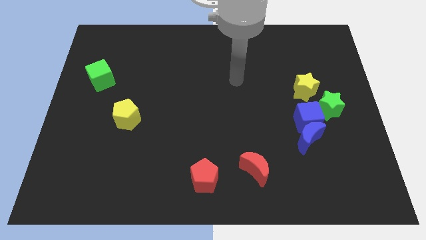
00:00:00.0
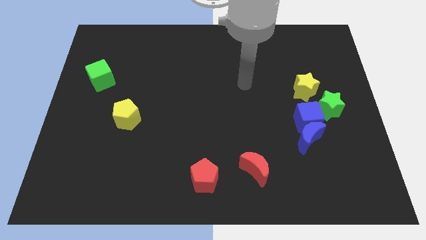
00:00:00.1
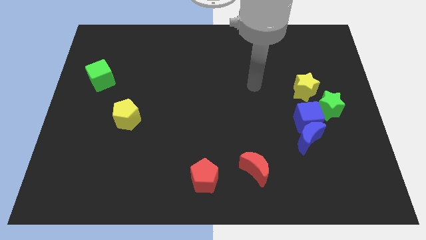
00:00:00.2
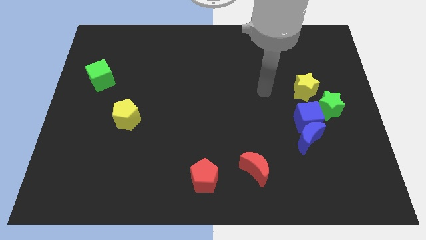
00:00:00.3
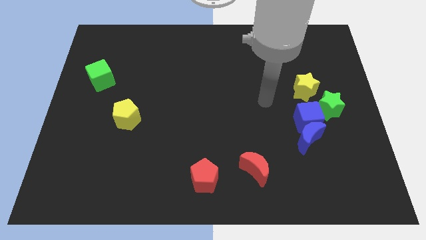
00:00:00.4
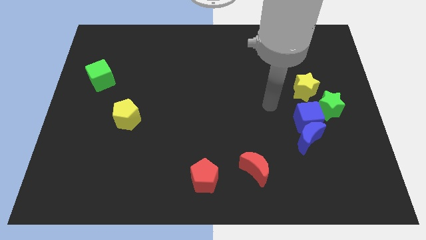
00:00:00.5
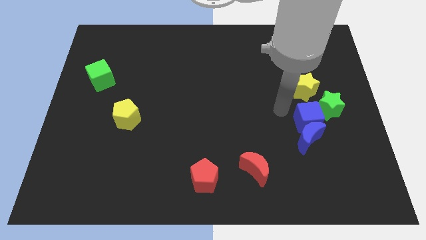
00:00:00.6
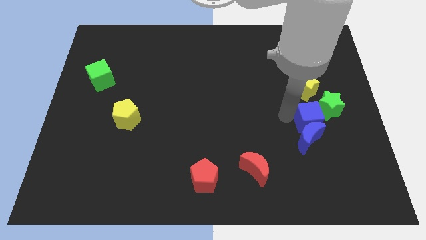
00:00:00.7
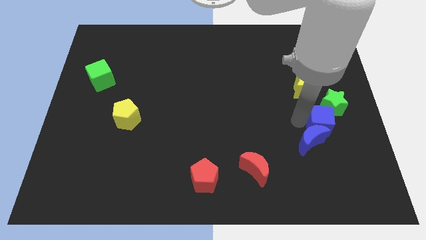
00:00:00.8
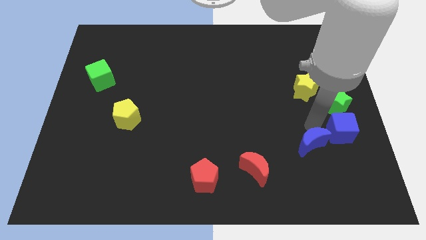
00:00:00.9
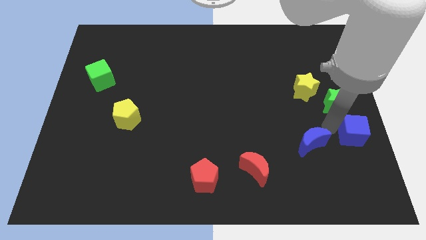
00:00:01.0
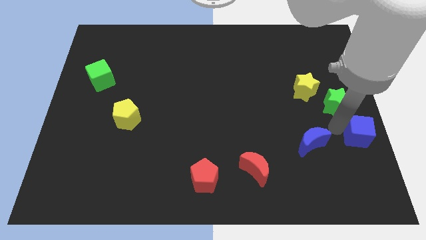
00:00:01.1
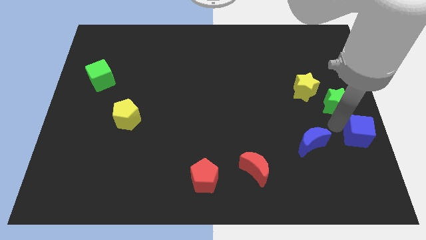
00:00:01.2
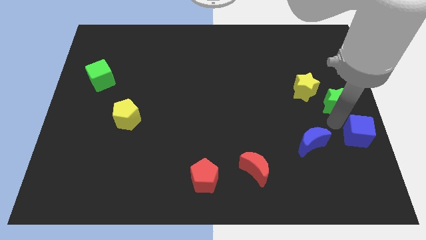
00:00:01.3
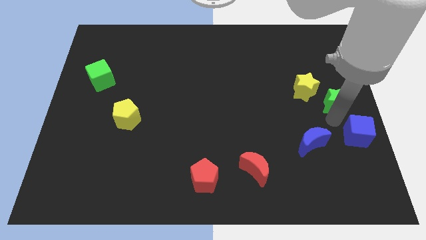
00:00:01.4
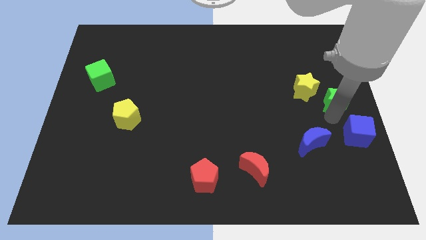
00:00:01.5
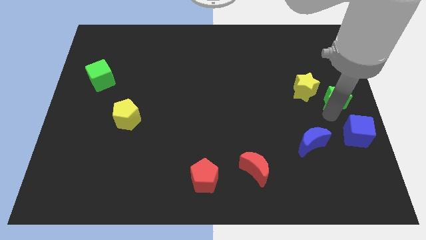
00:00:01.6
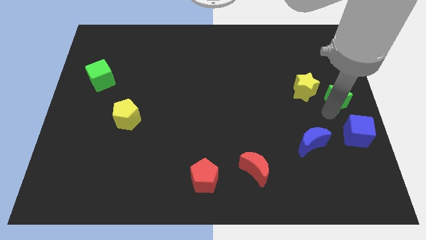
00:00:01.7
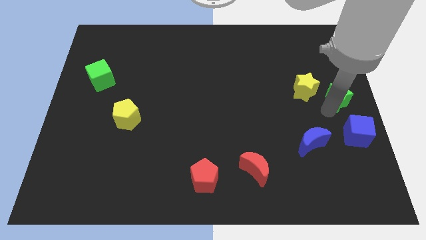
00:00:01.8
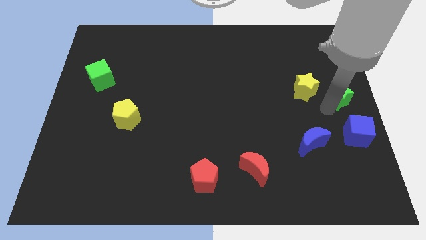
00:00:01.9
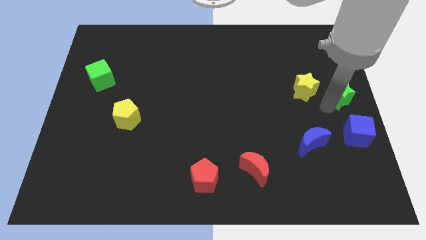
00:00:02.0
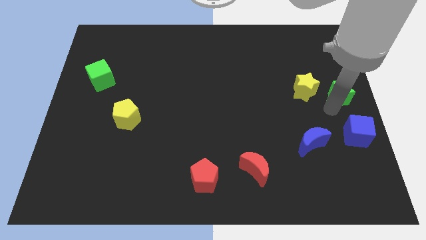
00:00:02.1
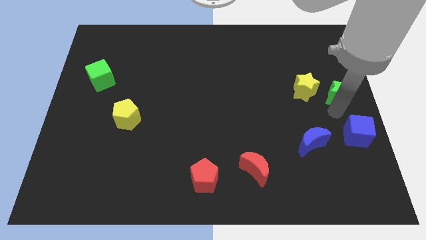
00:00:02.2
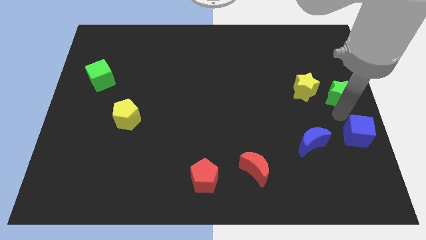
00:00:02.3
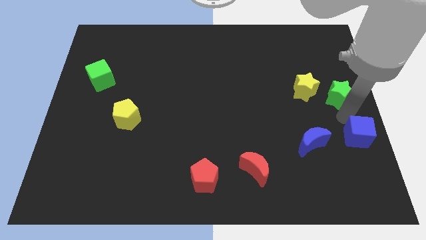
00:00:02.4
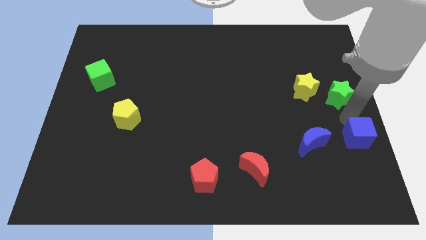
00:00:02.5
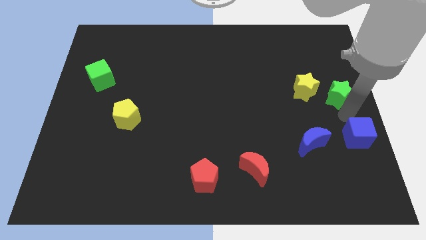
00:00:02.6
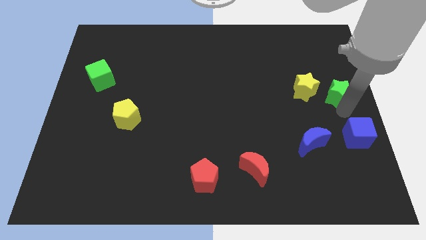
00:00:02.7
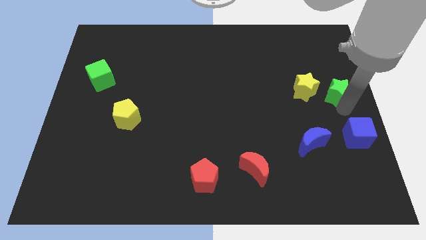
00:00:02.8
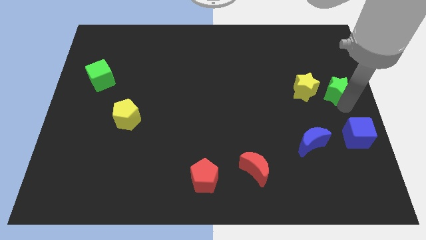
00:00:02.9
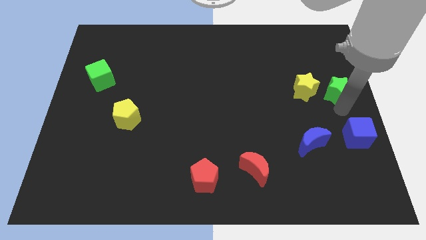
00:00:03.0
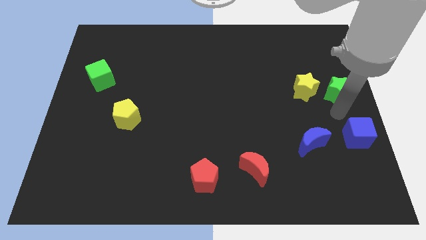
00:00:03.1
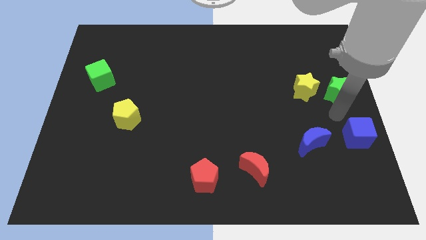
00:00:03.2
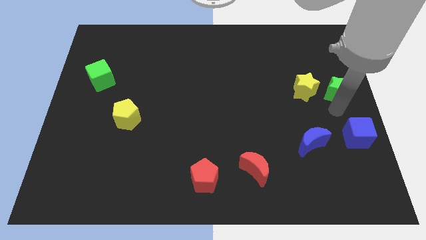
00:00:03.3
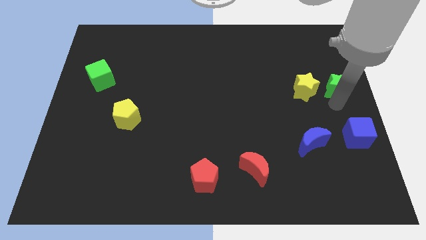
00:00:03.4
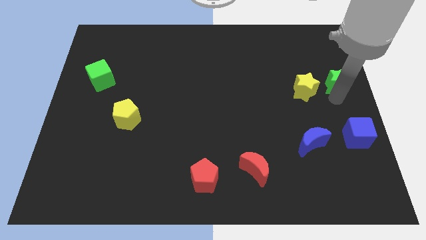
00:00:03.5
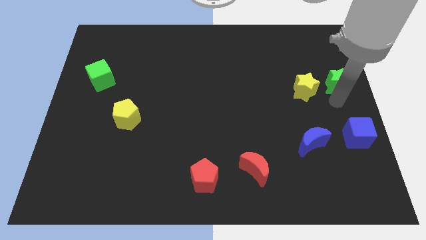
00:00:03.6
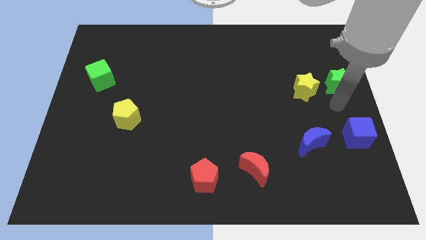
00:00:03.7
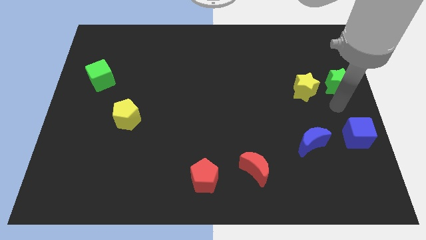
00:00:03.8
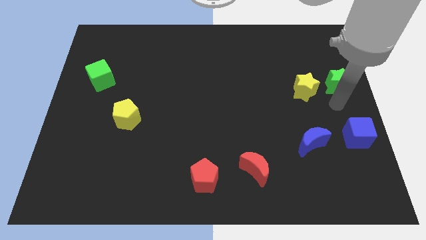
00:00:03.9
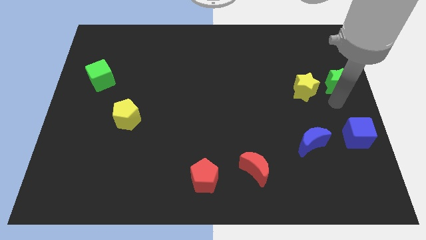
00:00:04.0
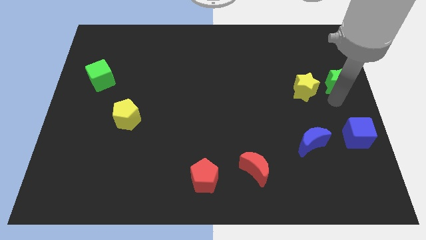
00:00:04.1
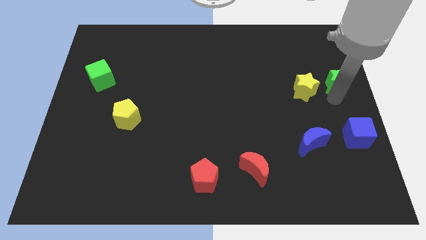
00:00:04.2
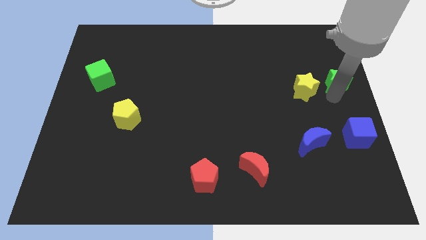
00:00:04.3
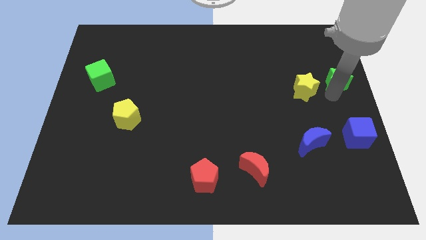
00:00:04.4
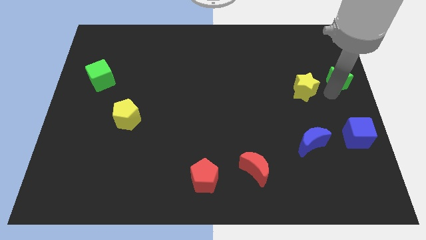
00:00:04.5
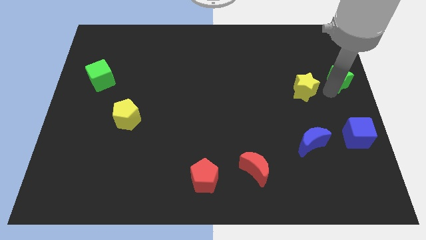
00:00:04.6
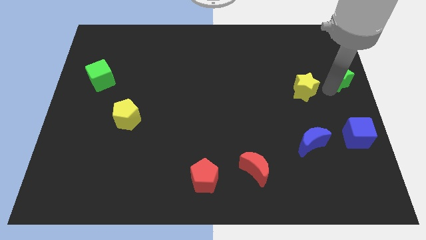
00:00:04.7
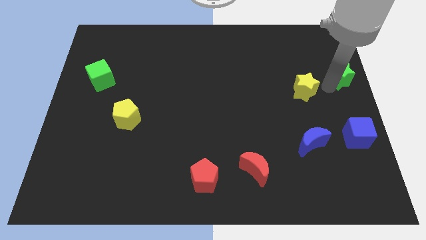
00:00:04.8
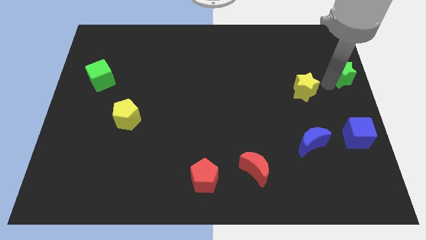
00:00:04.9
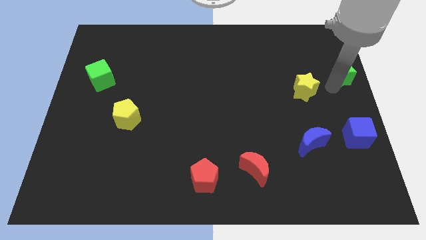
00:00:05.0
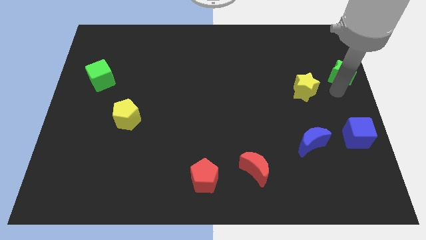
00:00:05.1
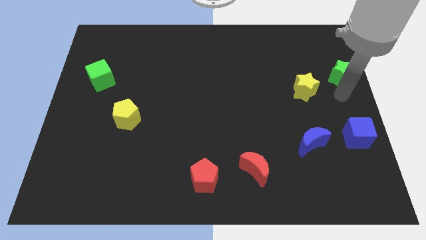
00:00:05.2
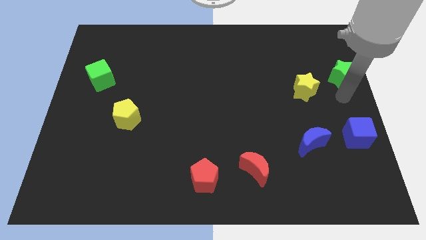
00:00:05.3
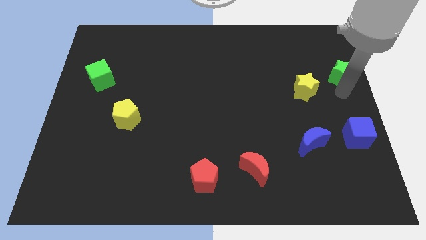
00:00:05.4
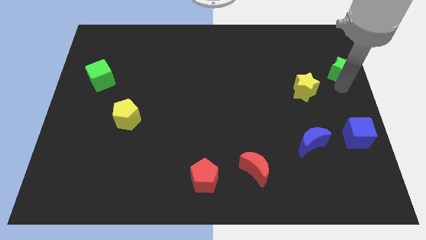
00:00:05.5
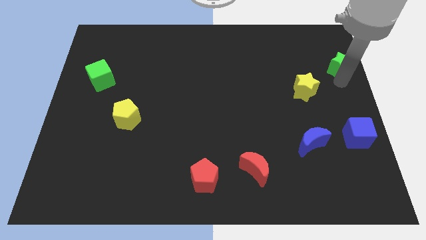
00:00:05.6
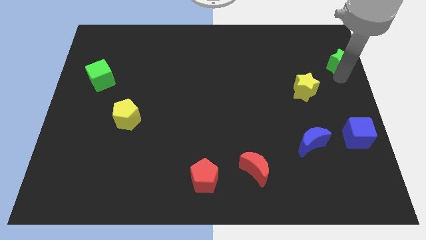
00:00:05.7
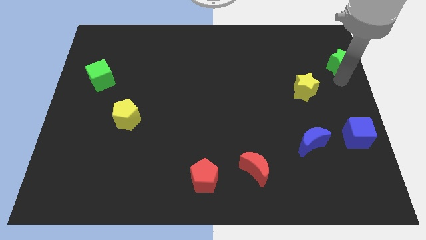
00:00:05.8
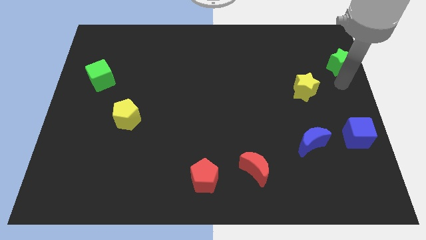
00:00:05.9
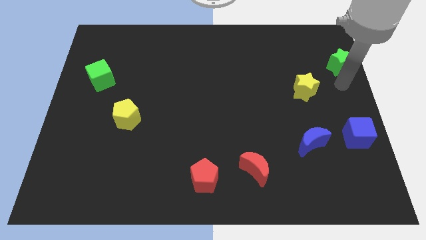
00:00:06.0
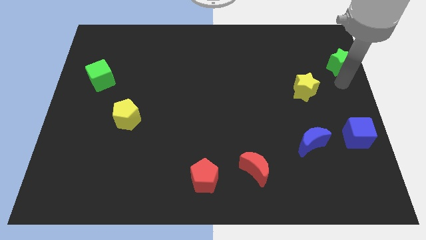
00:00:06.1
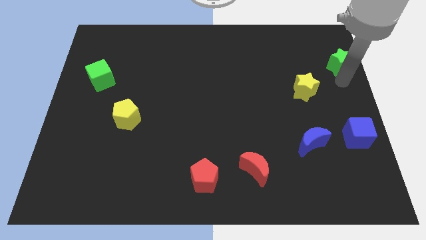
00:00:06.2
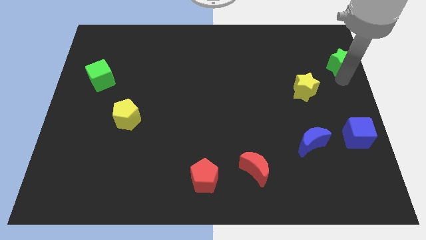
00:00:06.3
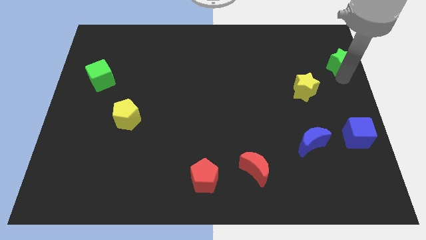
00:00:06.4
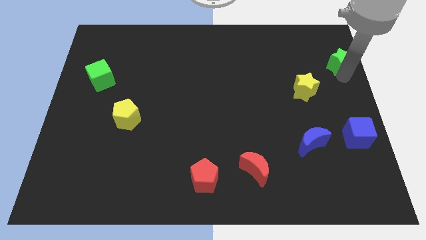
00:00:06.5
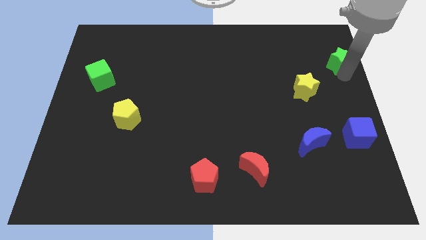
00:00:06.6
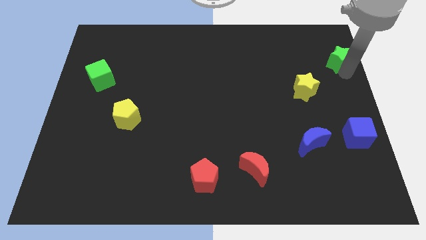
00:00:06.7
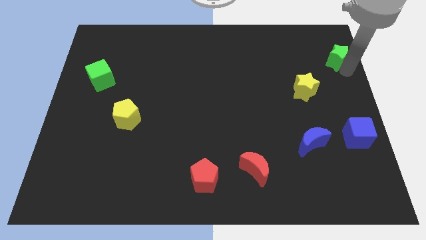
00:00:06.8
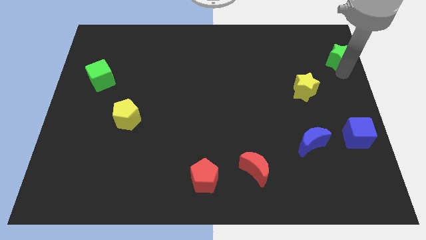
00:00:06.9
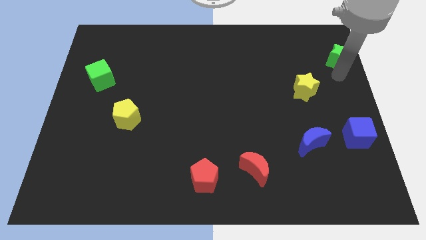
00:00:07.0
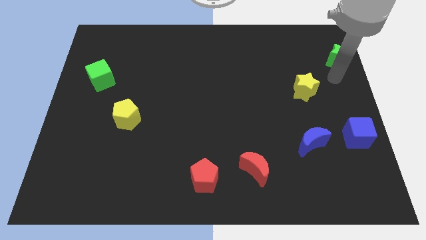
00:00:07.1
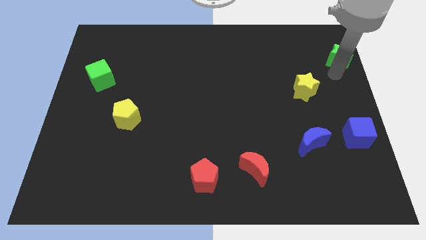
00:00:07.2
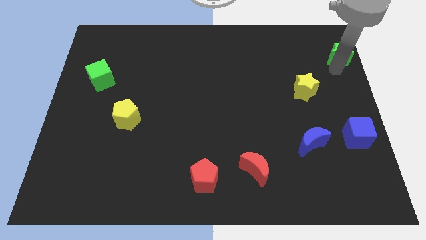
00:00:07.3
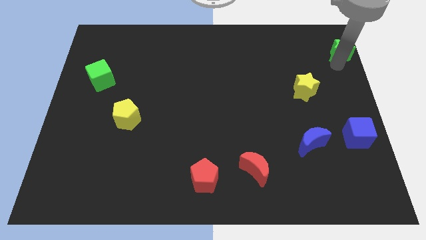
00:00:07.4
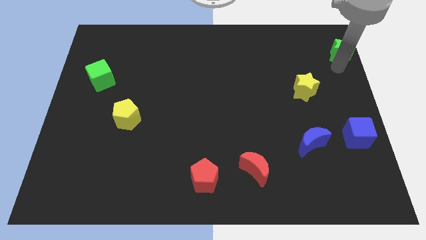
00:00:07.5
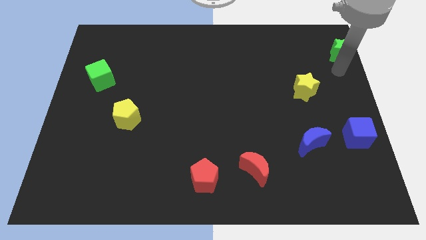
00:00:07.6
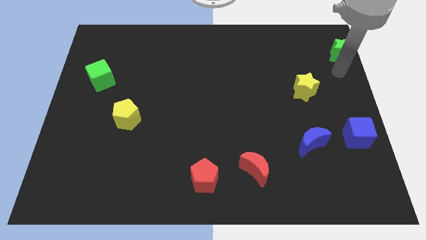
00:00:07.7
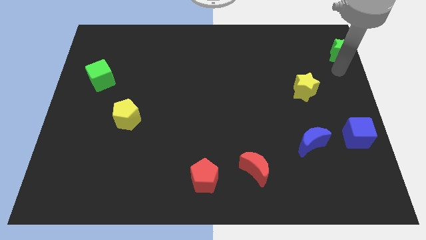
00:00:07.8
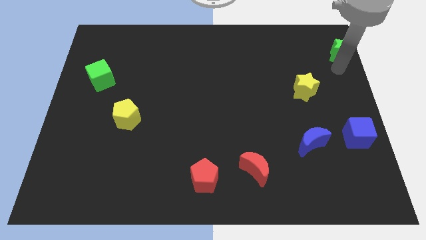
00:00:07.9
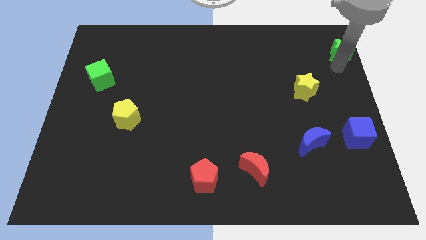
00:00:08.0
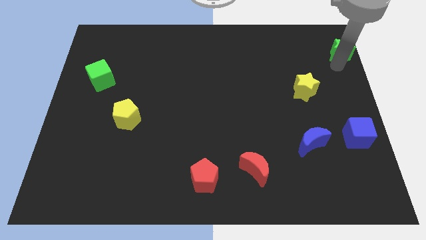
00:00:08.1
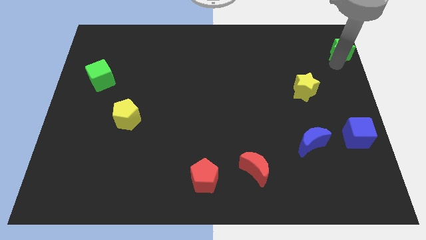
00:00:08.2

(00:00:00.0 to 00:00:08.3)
push the green star to the top right
